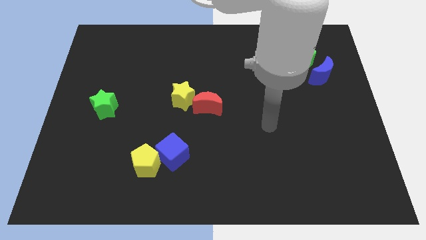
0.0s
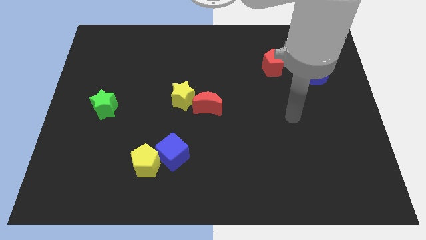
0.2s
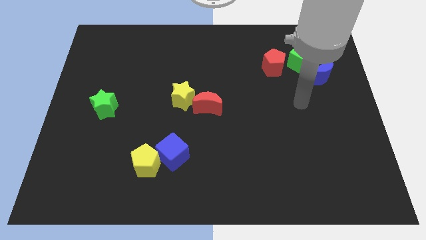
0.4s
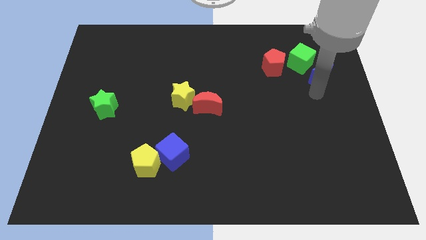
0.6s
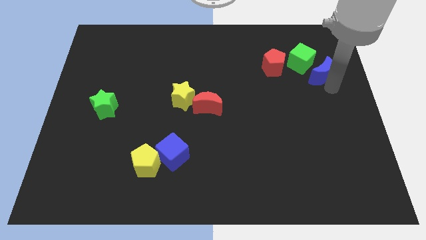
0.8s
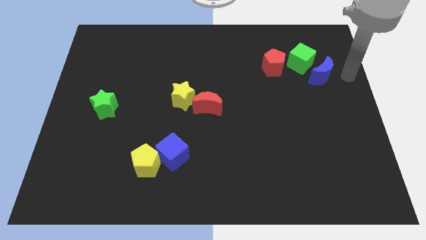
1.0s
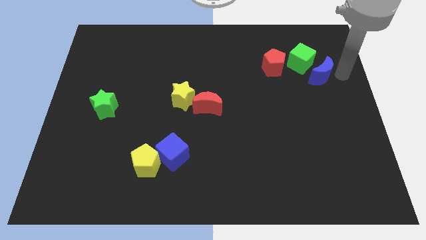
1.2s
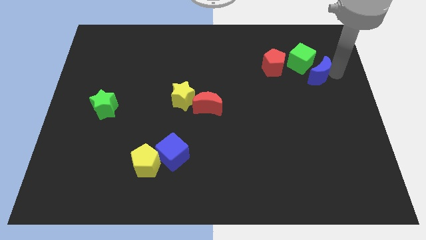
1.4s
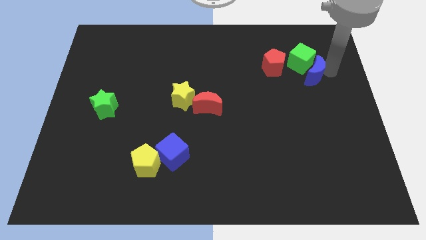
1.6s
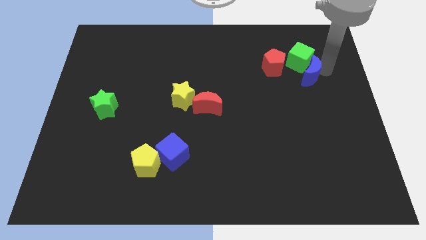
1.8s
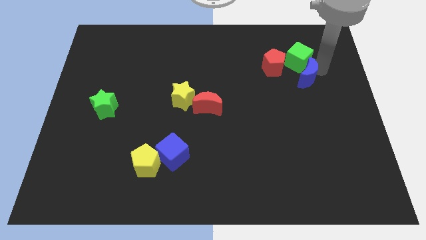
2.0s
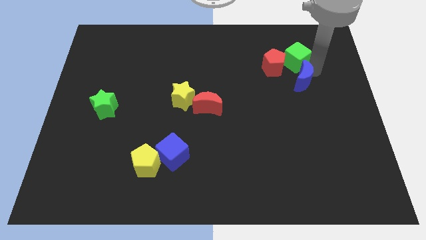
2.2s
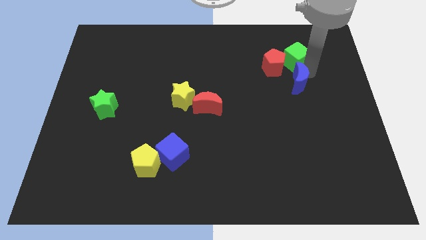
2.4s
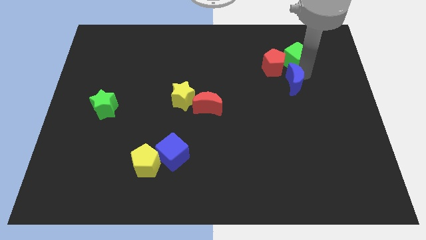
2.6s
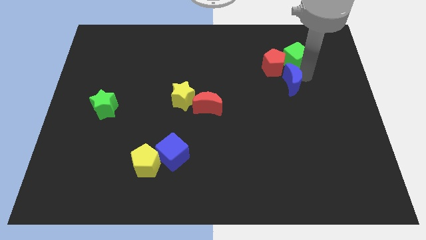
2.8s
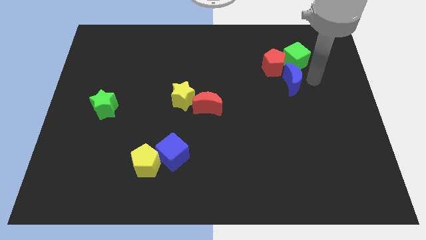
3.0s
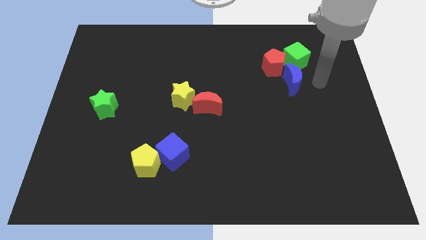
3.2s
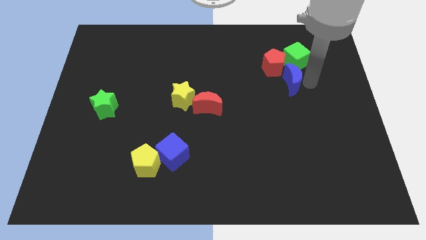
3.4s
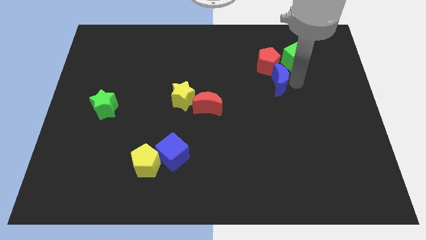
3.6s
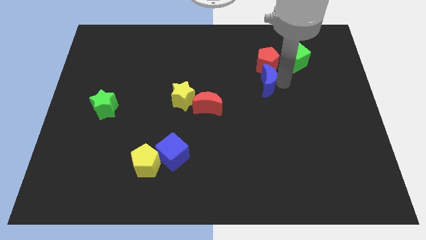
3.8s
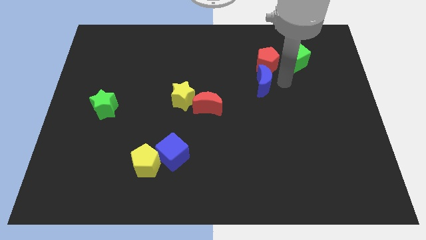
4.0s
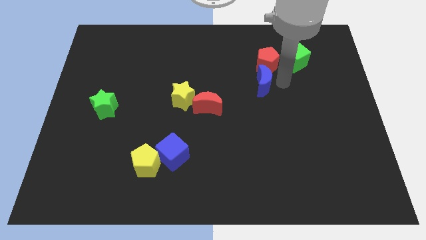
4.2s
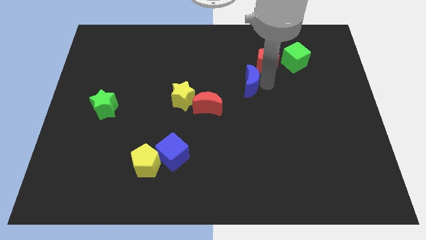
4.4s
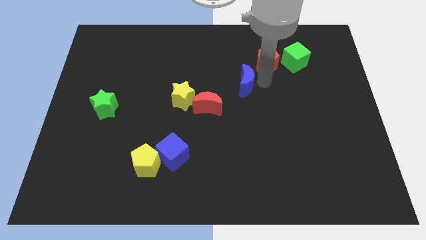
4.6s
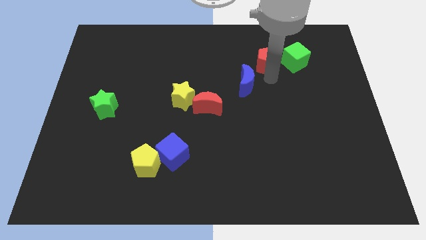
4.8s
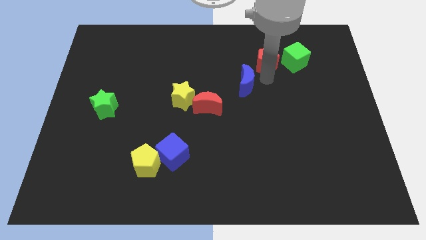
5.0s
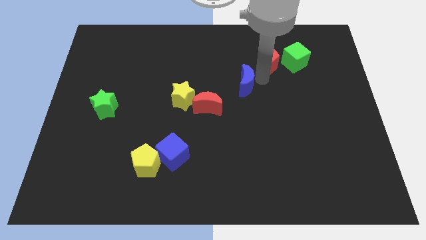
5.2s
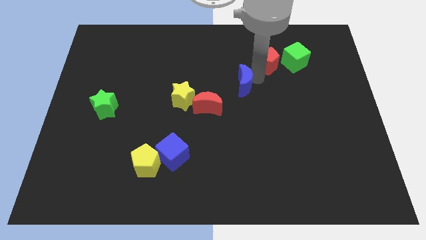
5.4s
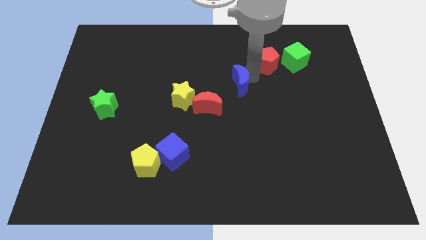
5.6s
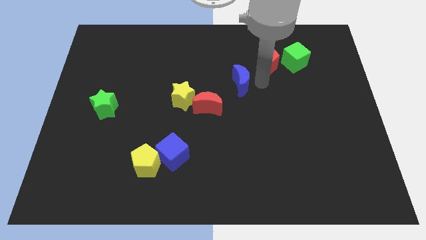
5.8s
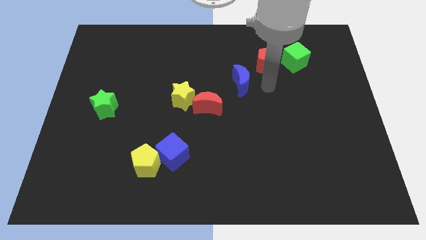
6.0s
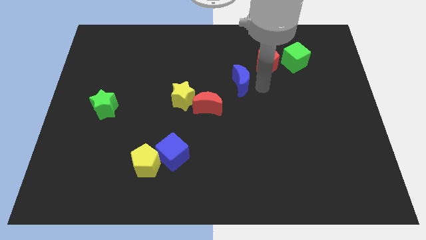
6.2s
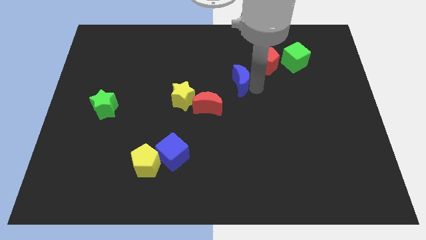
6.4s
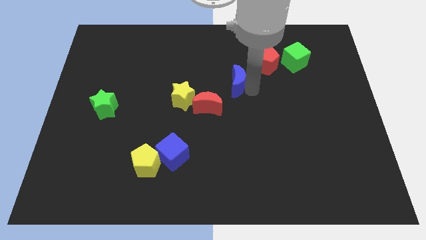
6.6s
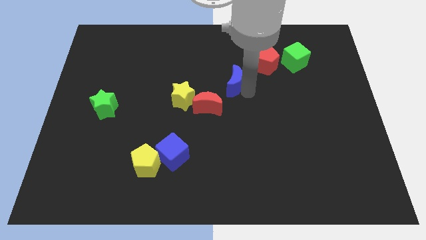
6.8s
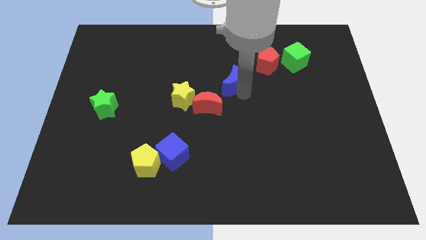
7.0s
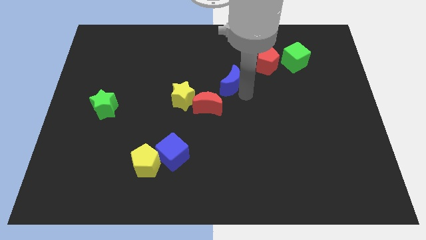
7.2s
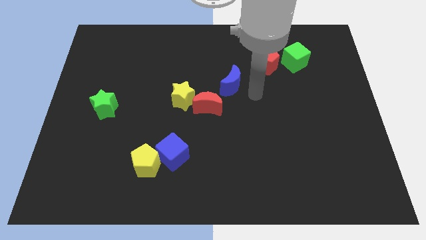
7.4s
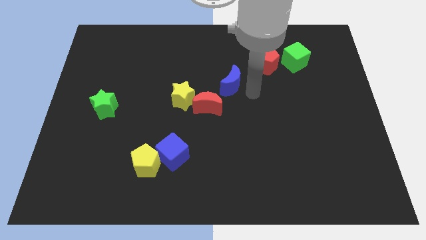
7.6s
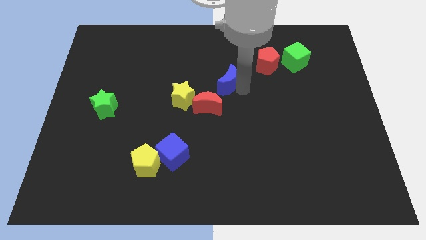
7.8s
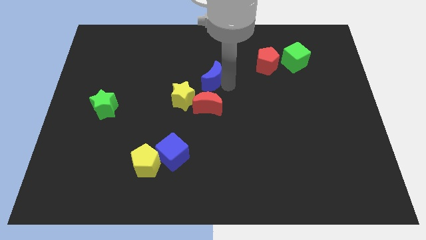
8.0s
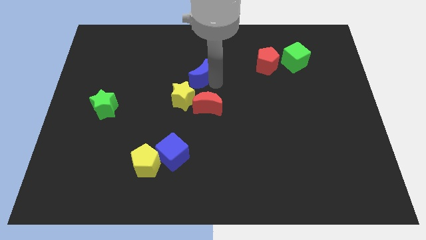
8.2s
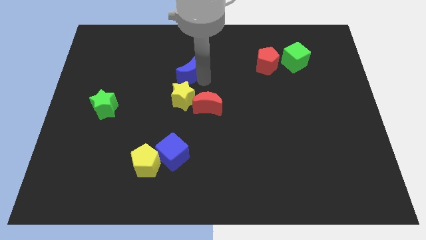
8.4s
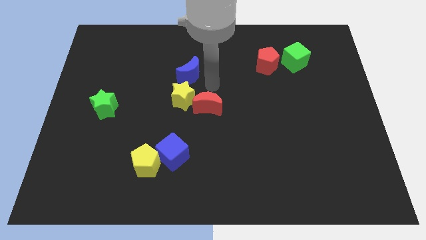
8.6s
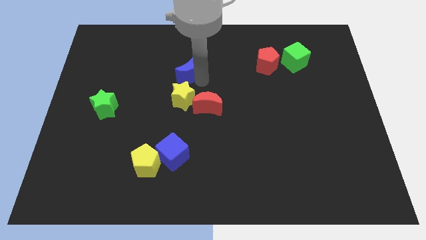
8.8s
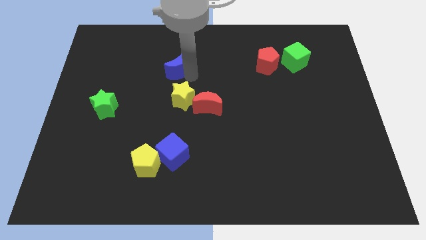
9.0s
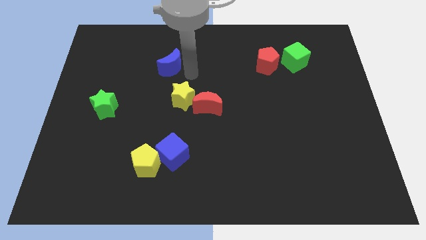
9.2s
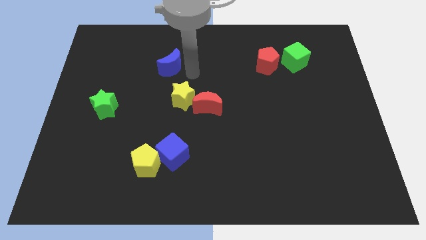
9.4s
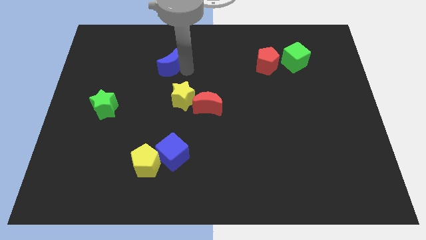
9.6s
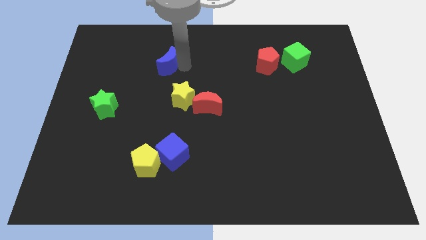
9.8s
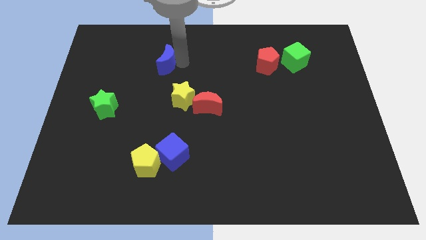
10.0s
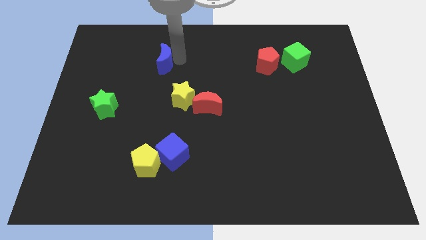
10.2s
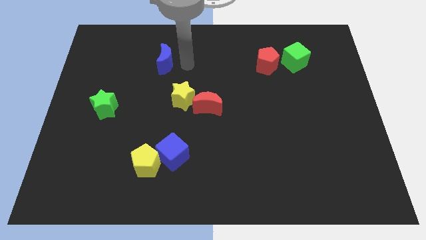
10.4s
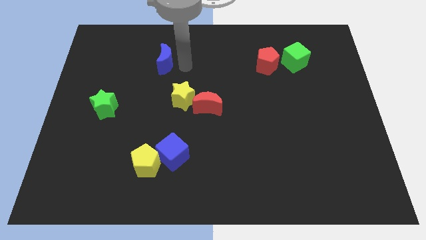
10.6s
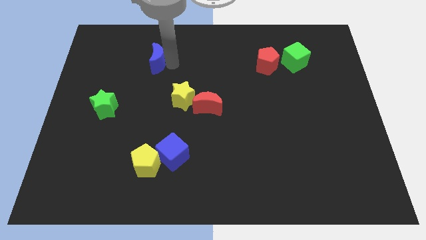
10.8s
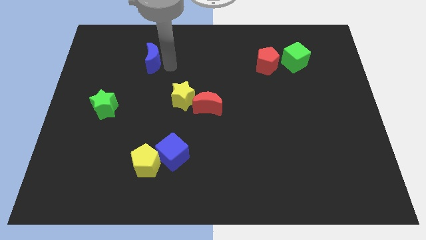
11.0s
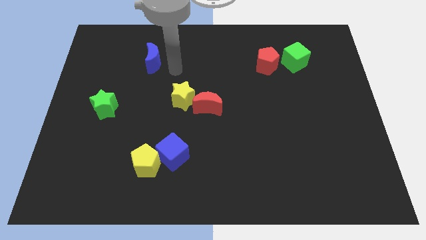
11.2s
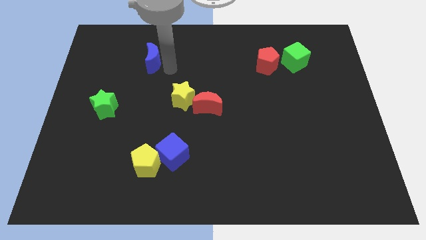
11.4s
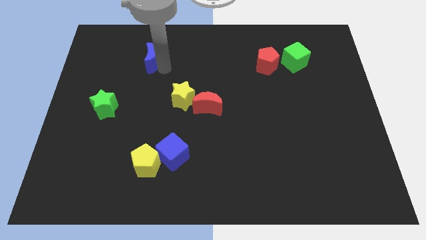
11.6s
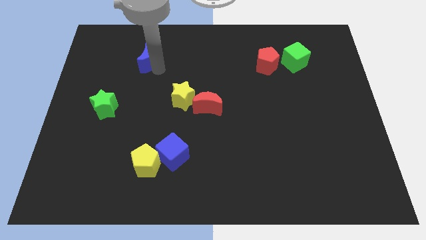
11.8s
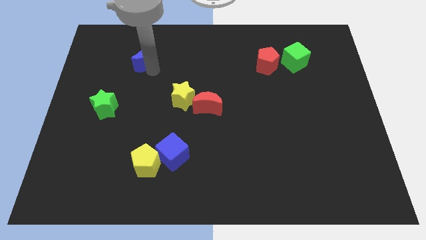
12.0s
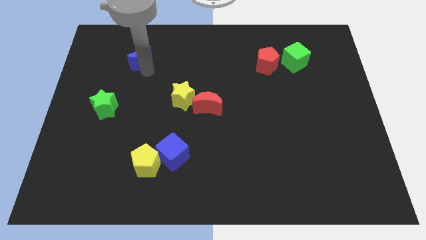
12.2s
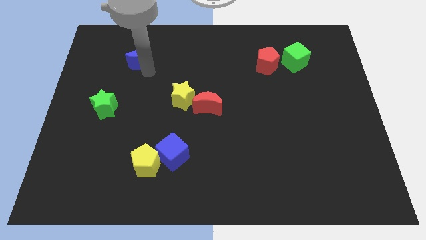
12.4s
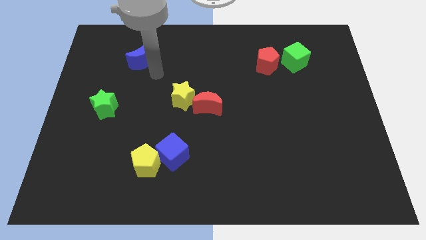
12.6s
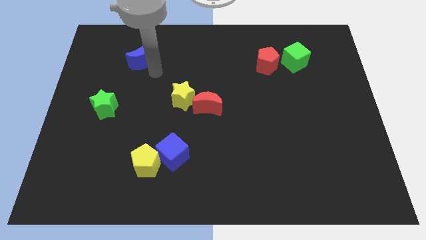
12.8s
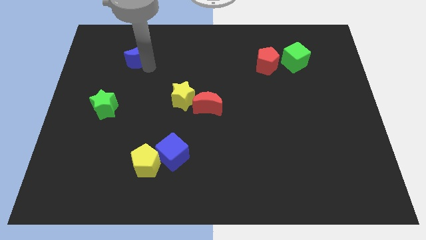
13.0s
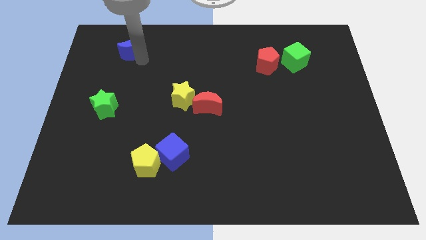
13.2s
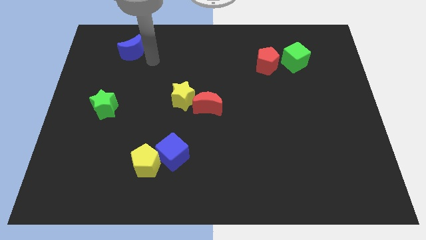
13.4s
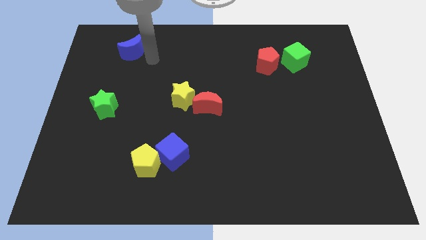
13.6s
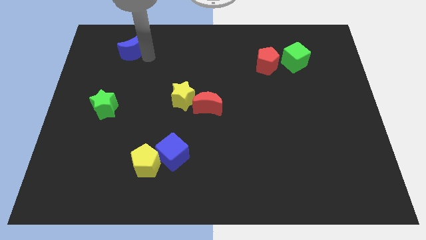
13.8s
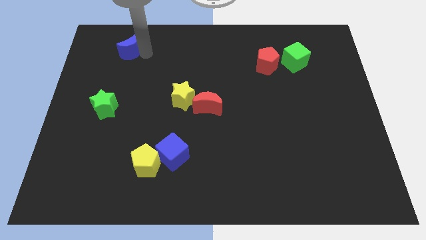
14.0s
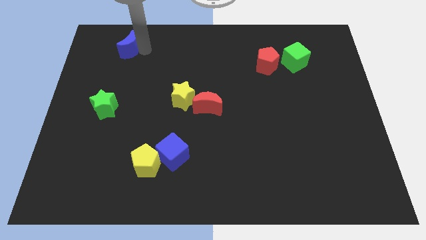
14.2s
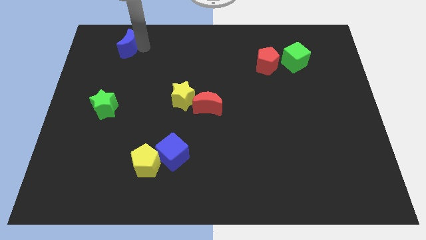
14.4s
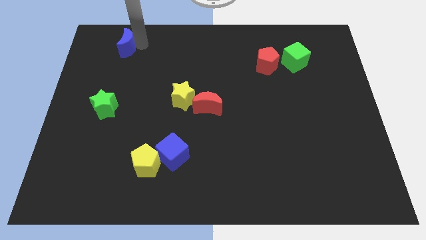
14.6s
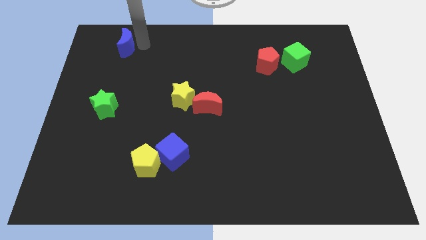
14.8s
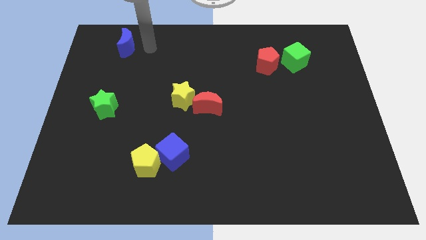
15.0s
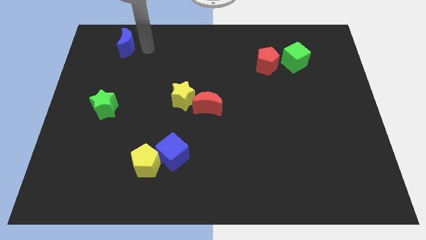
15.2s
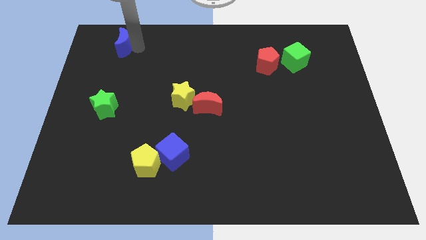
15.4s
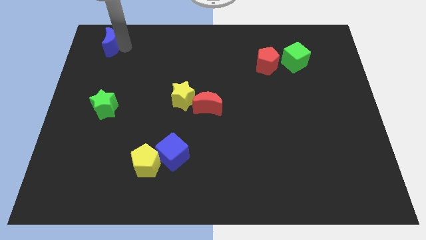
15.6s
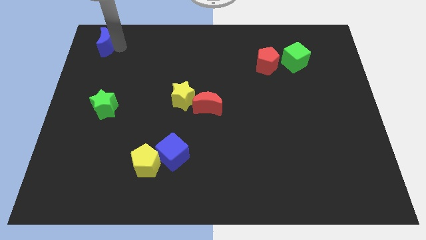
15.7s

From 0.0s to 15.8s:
slide the blue moon to the top left corner
